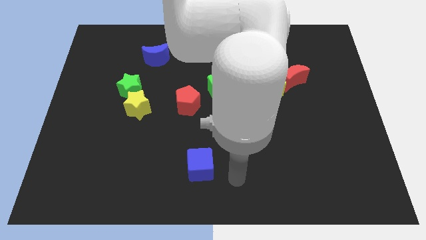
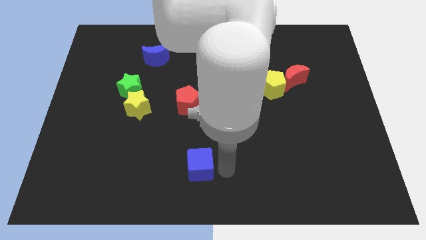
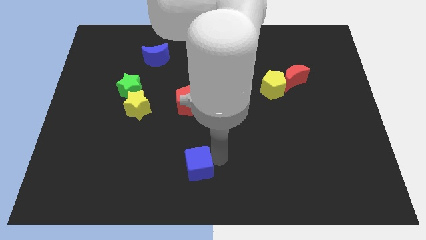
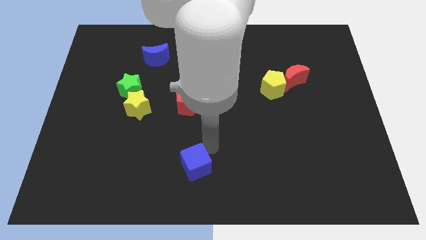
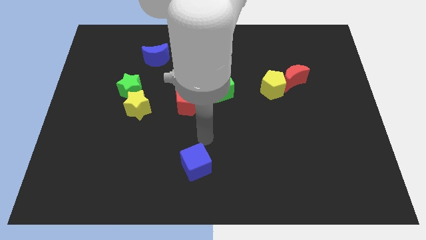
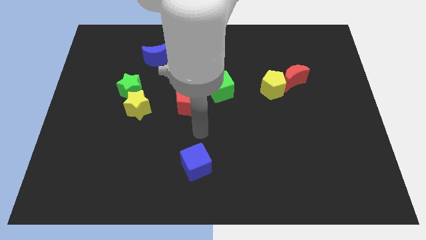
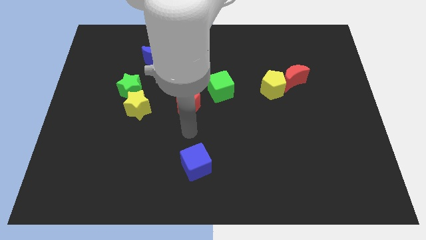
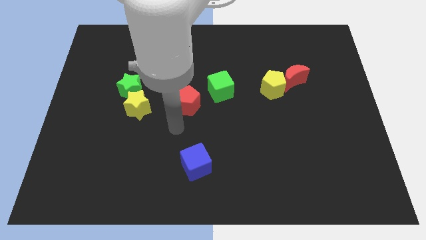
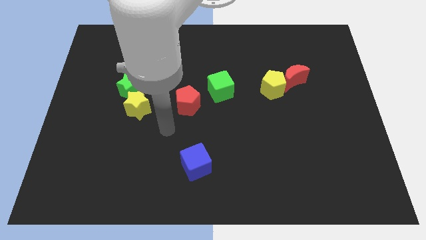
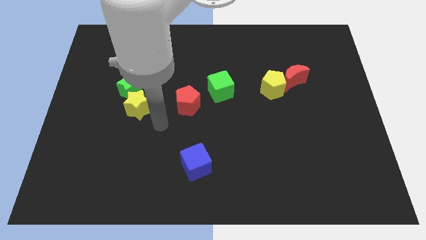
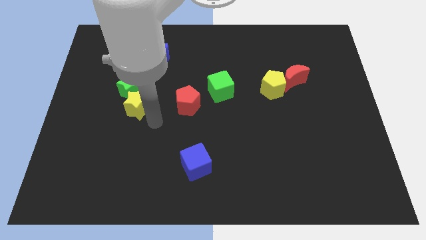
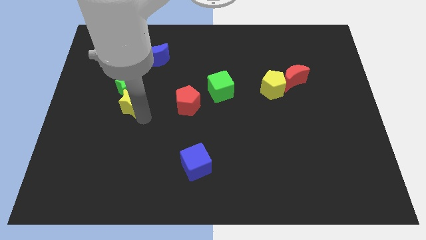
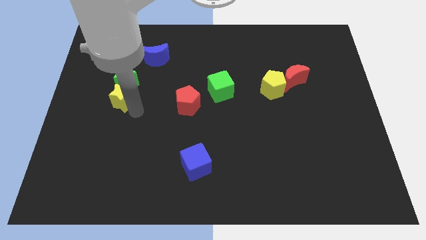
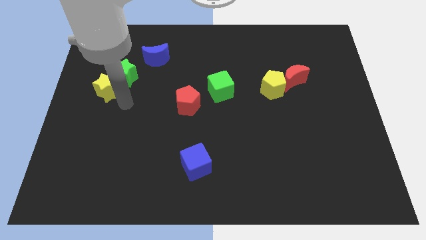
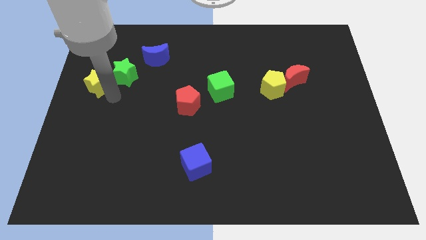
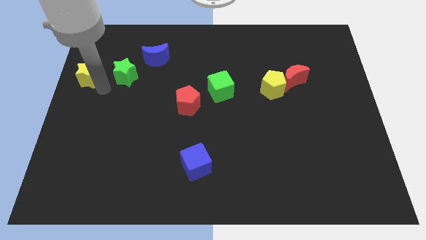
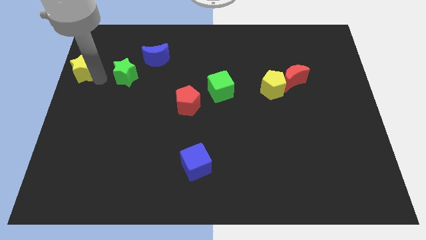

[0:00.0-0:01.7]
move the green star away from the yellow star

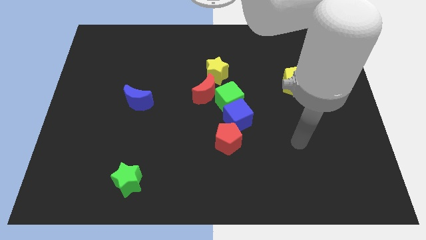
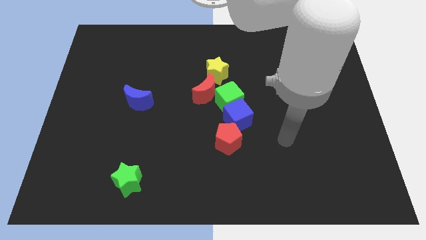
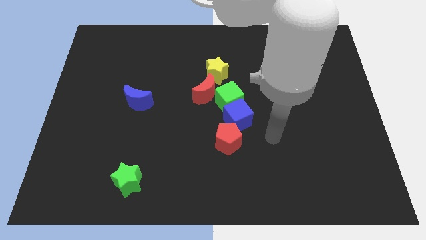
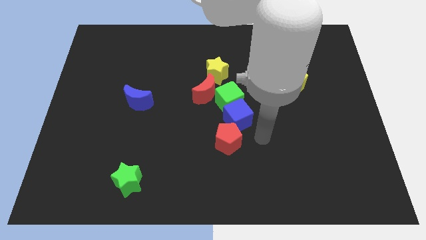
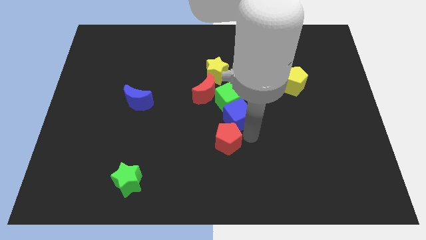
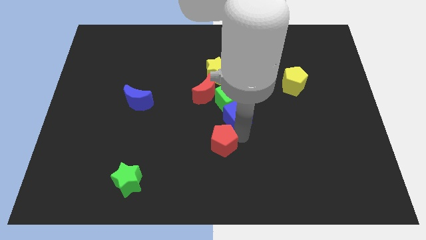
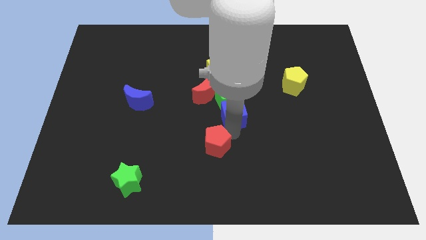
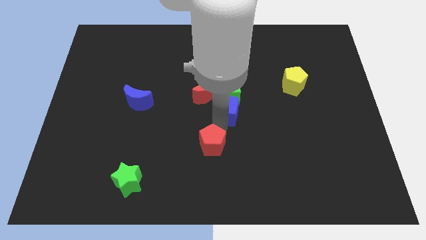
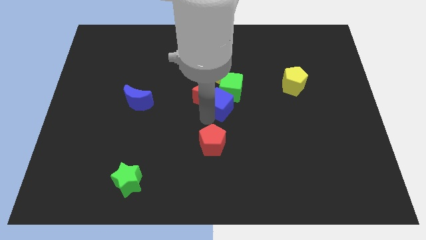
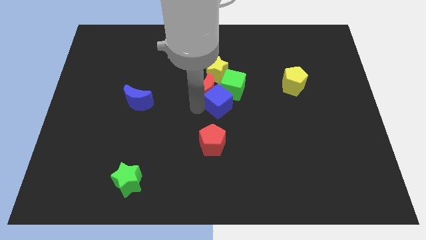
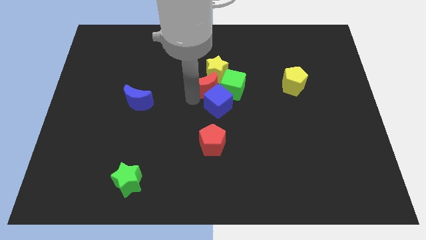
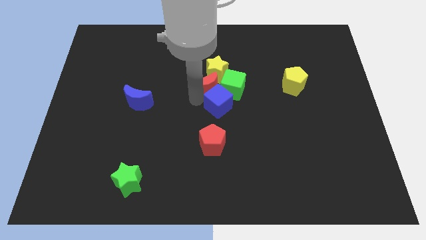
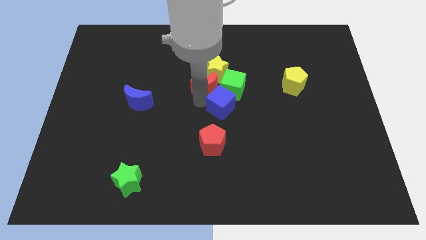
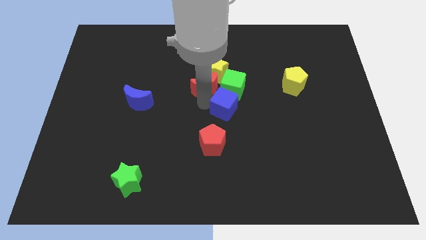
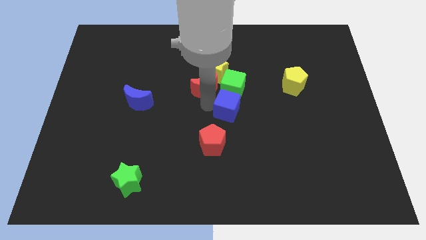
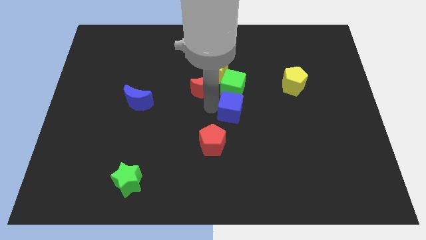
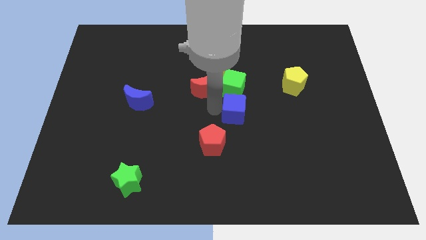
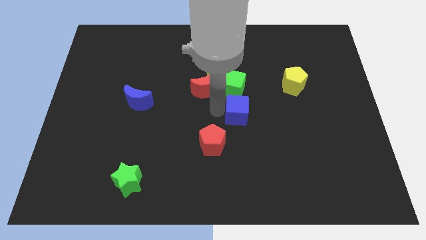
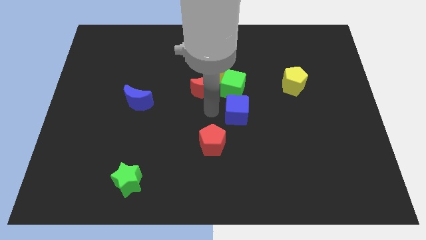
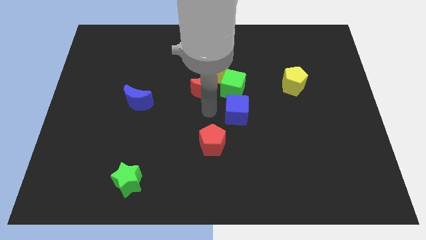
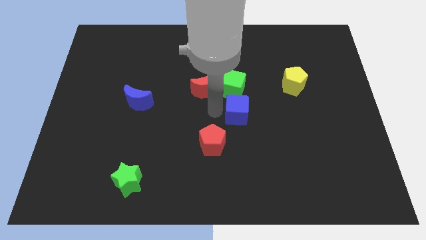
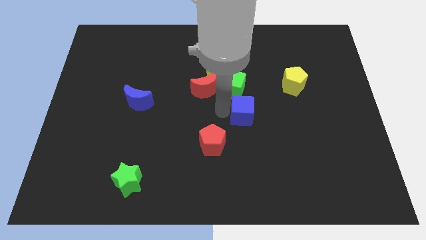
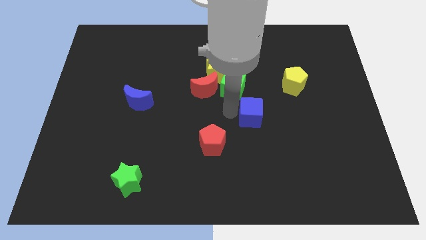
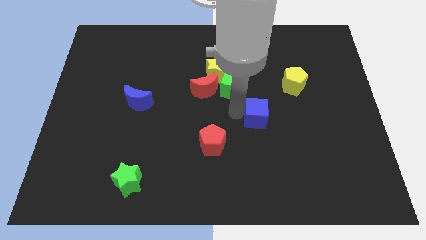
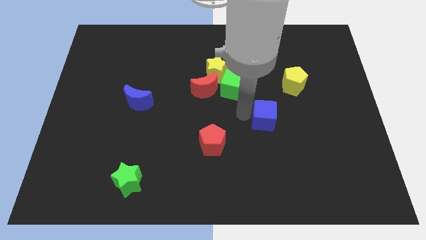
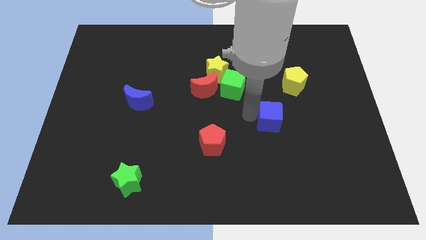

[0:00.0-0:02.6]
pull the blue cube apart from the green cube and red pentagon

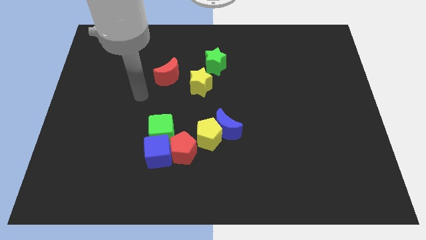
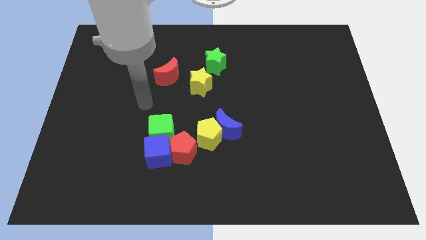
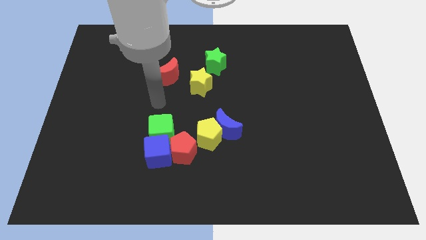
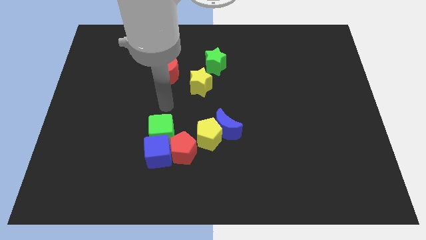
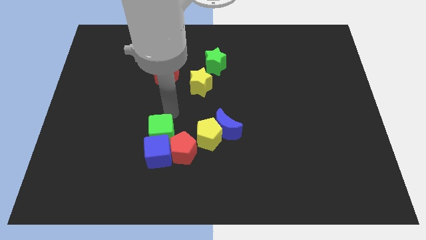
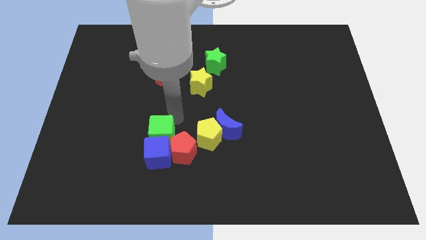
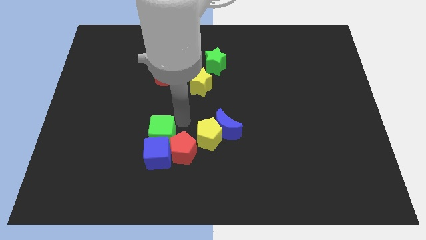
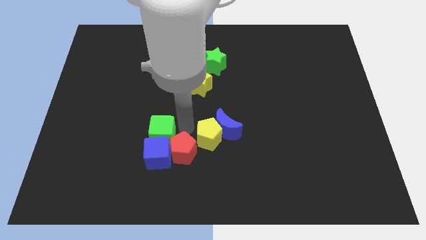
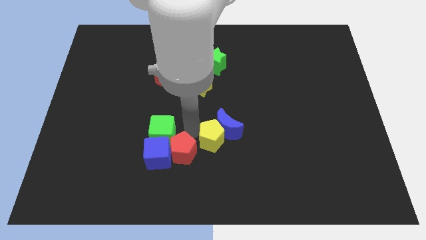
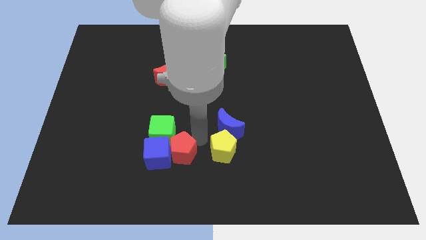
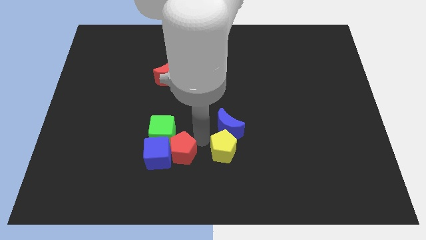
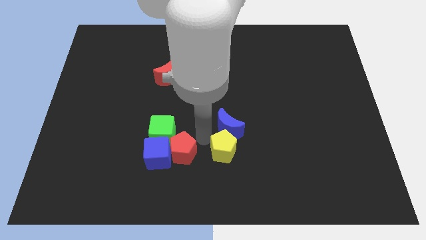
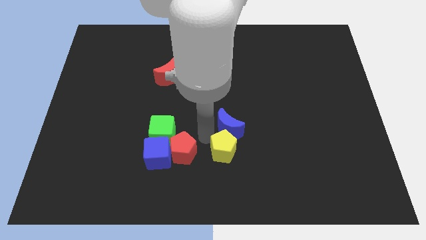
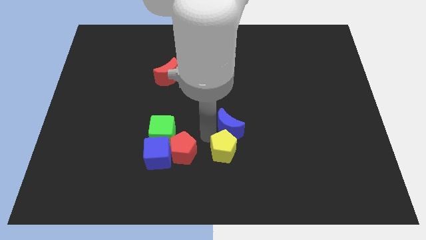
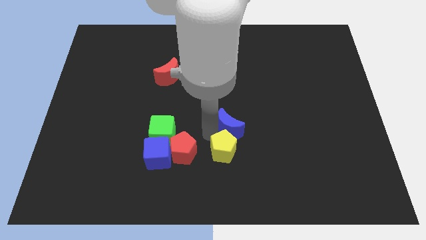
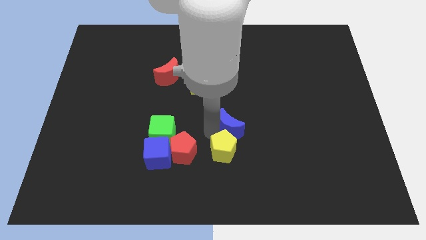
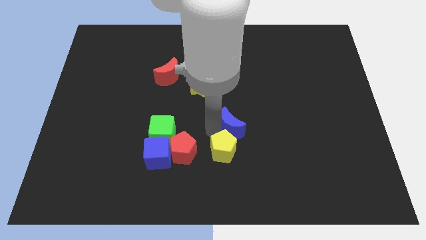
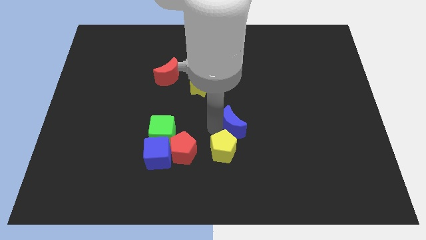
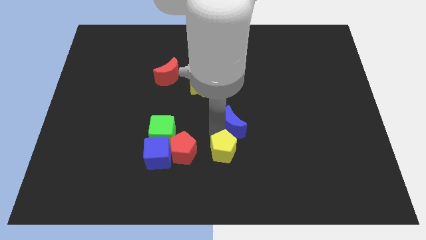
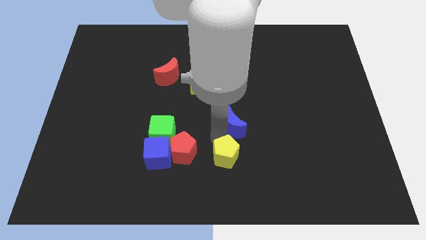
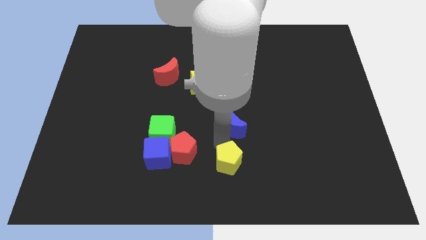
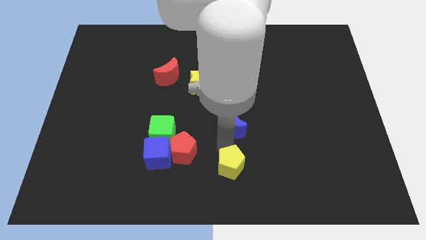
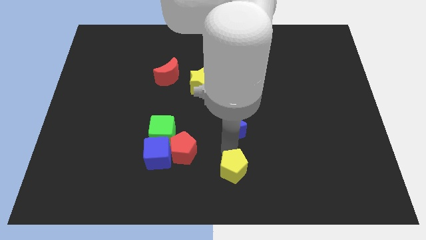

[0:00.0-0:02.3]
move the blue moon away from the yellow pentagon

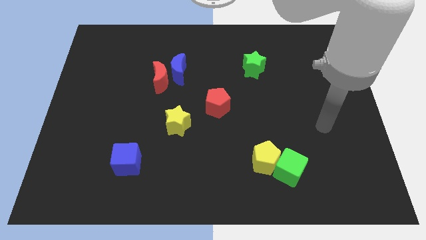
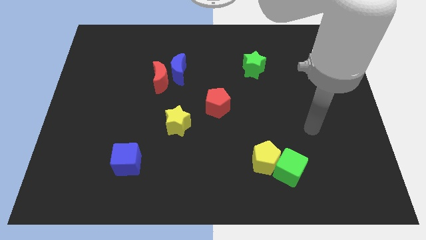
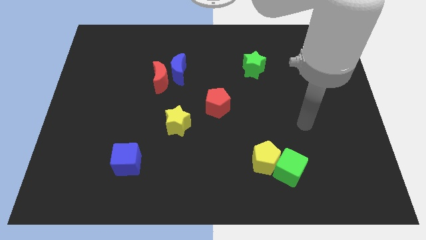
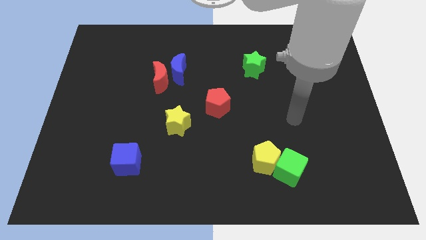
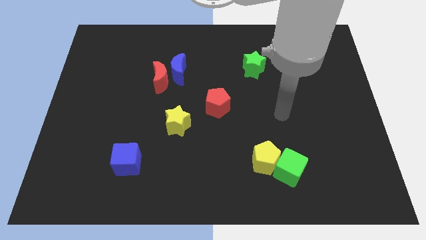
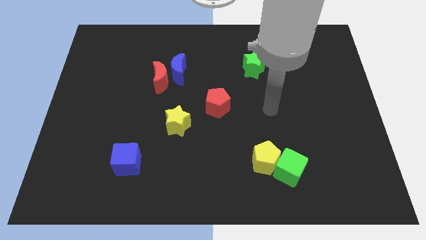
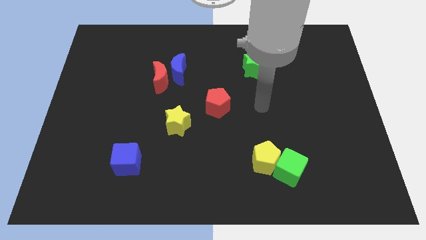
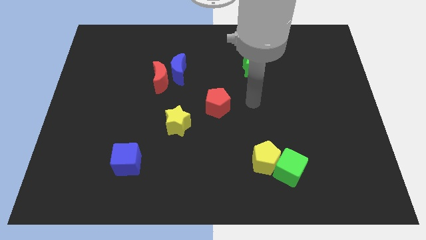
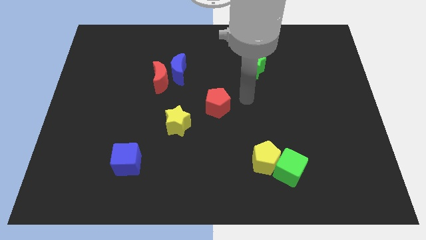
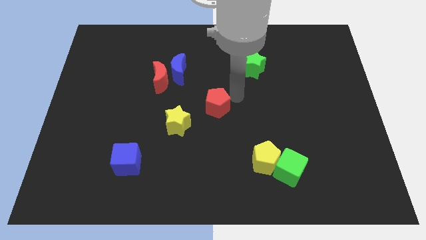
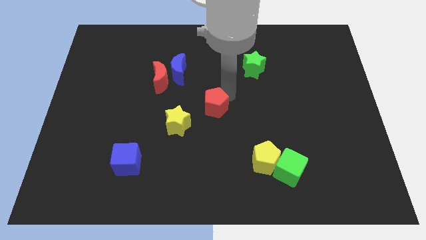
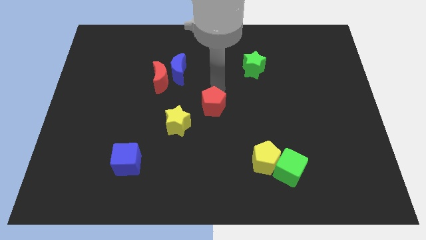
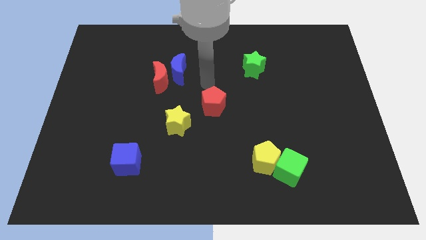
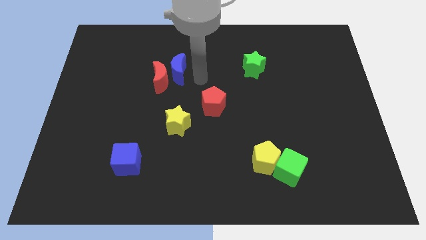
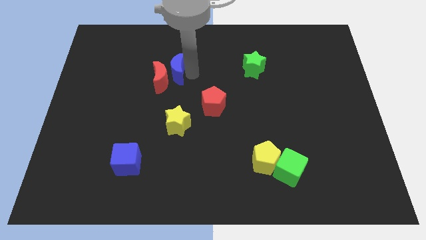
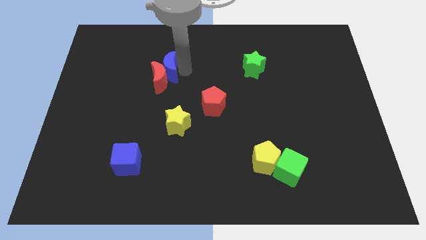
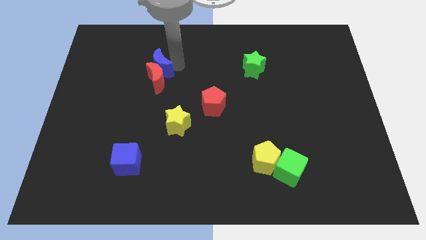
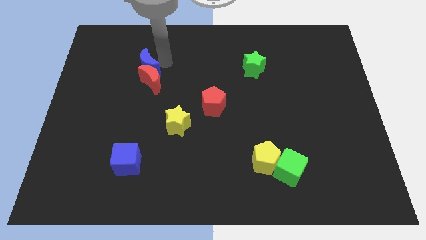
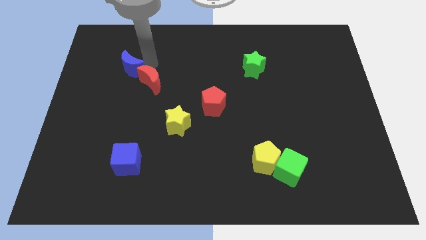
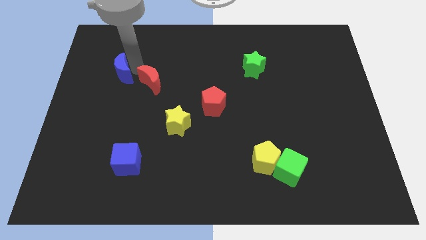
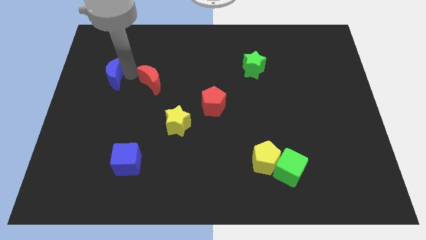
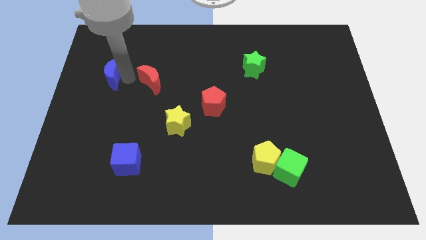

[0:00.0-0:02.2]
separate the red moon from the blue moon

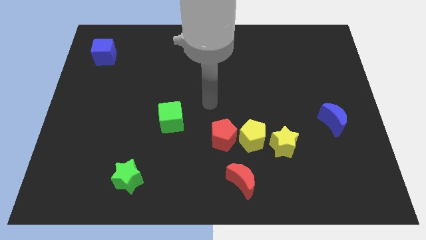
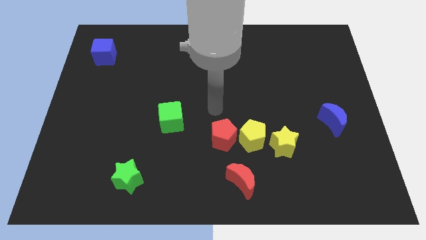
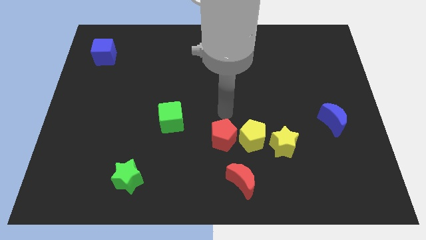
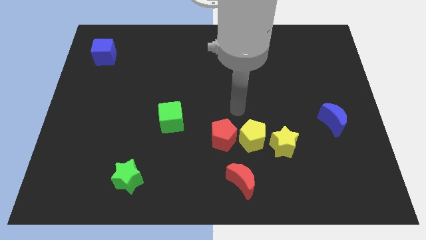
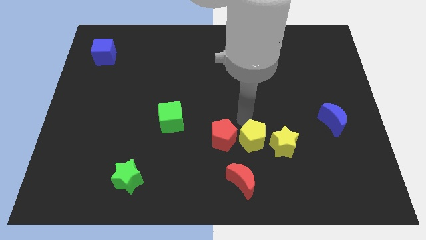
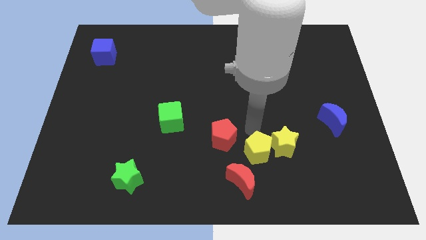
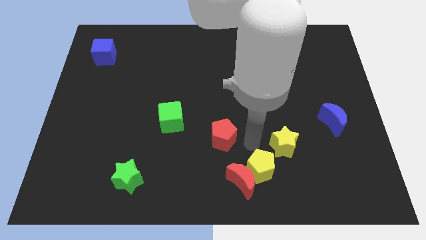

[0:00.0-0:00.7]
separate the red pentagon from the yellow pentagon
